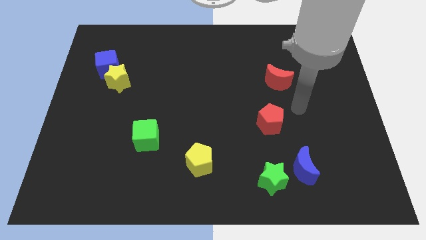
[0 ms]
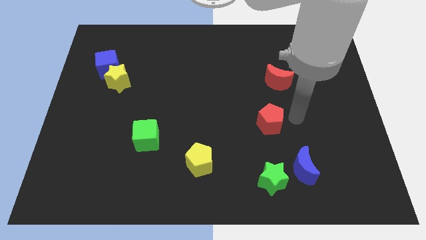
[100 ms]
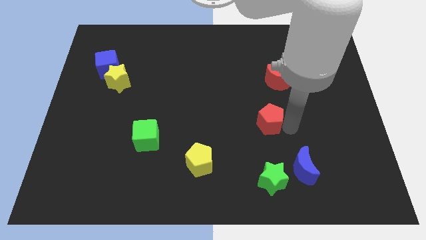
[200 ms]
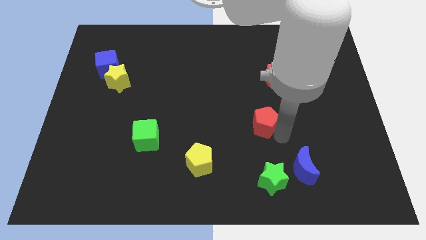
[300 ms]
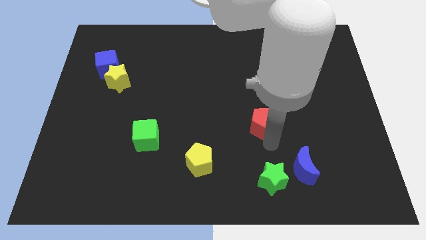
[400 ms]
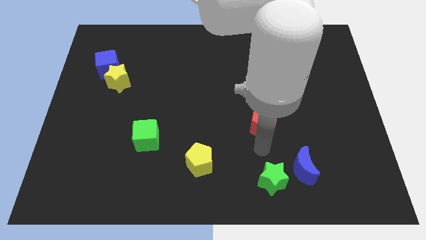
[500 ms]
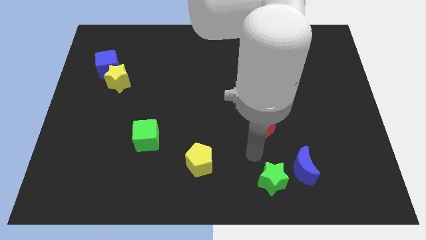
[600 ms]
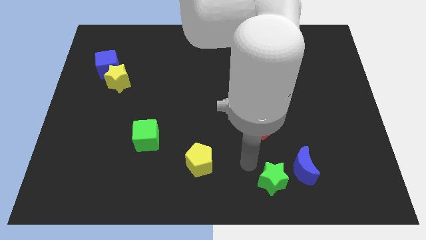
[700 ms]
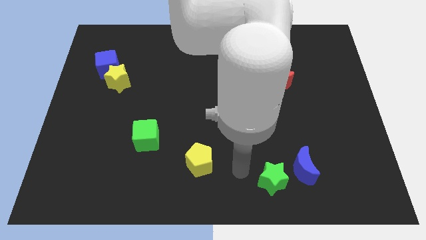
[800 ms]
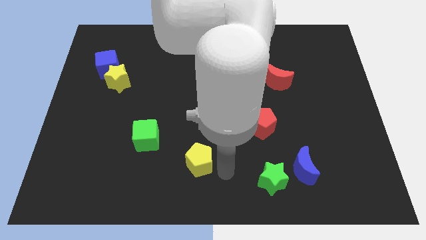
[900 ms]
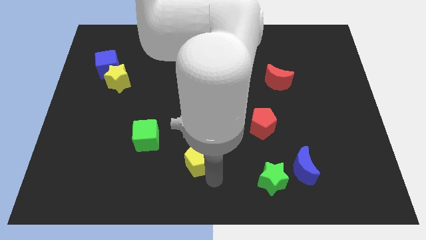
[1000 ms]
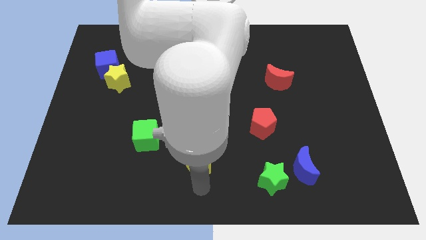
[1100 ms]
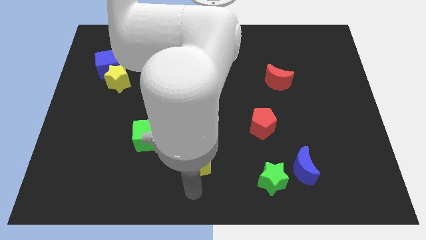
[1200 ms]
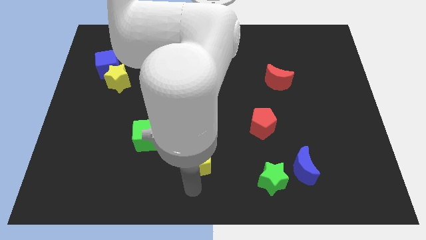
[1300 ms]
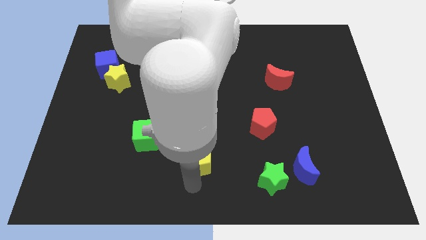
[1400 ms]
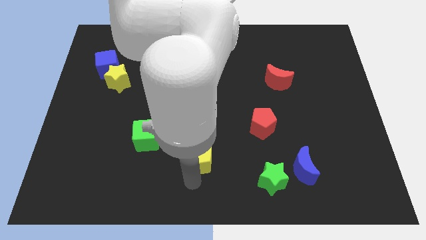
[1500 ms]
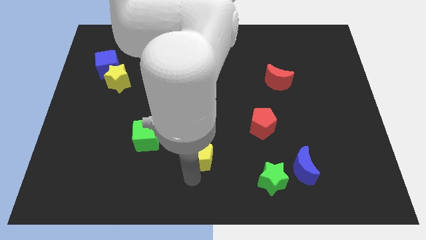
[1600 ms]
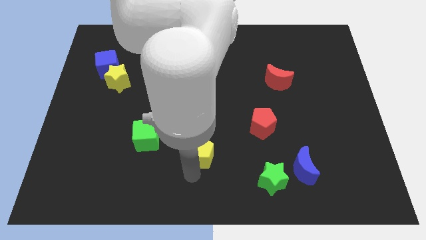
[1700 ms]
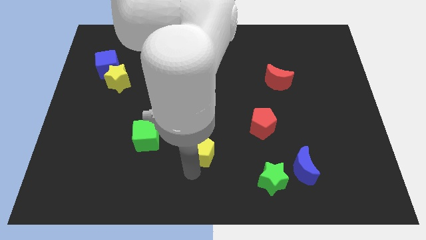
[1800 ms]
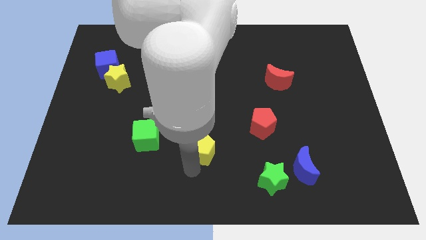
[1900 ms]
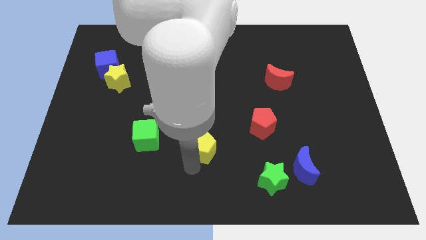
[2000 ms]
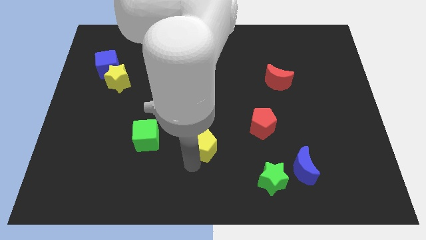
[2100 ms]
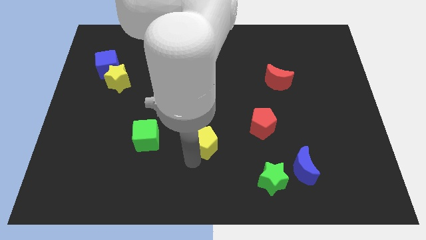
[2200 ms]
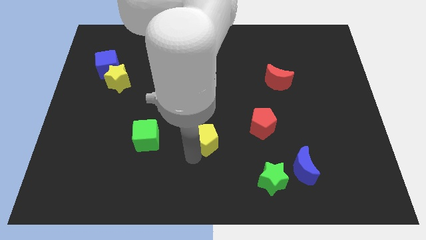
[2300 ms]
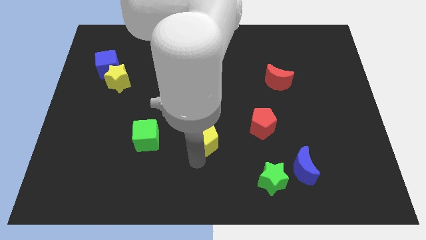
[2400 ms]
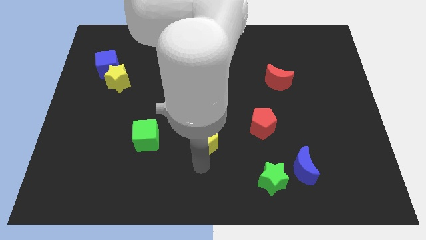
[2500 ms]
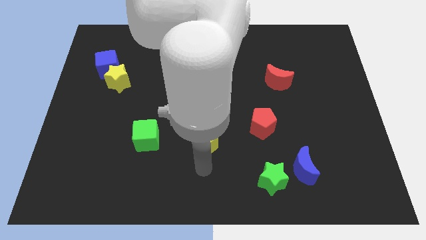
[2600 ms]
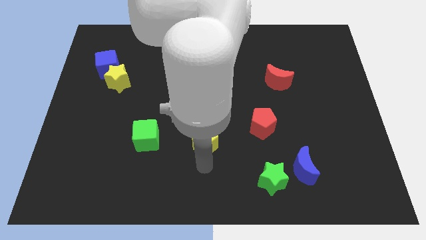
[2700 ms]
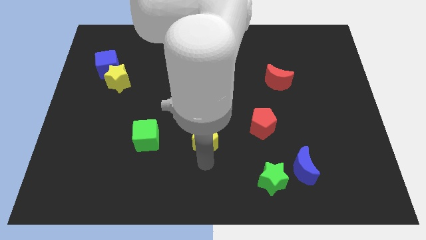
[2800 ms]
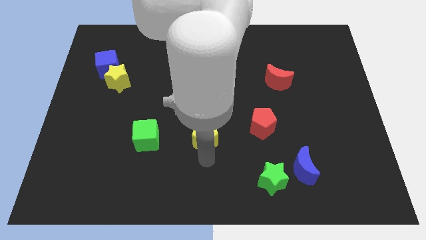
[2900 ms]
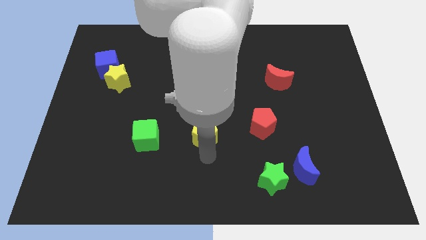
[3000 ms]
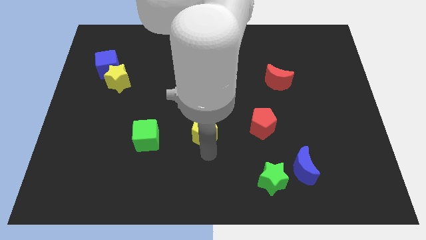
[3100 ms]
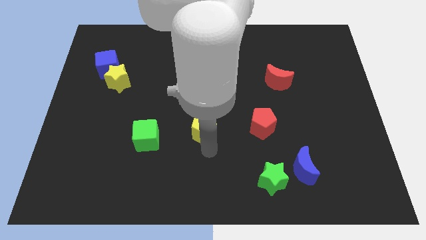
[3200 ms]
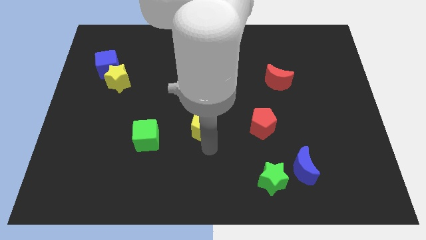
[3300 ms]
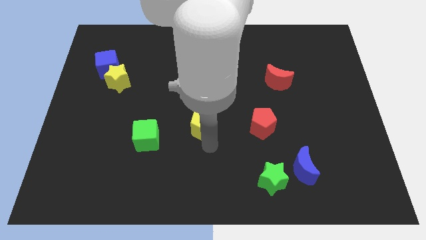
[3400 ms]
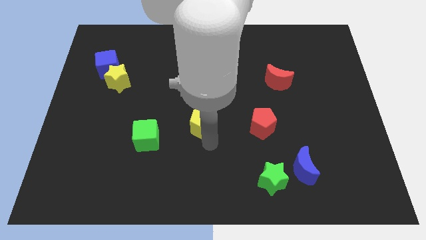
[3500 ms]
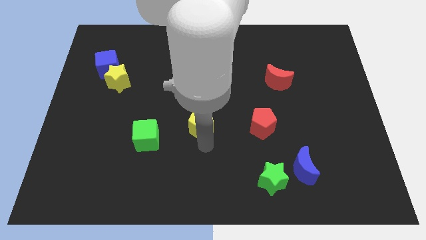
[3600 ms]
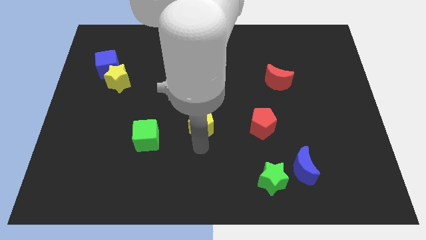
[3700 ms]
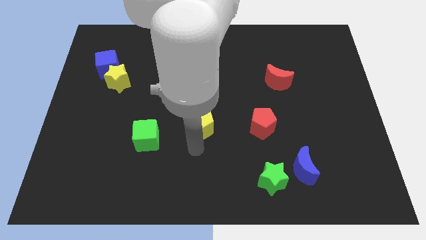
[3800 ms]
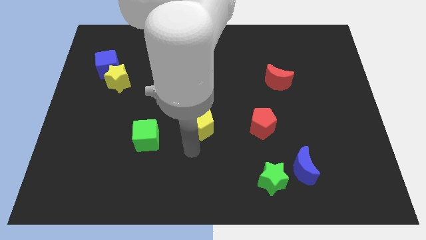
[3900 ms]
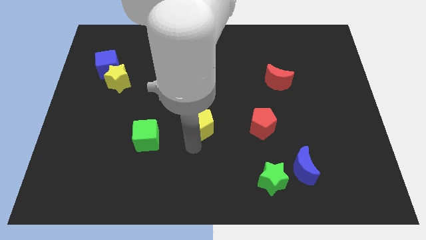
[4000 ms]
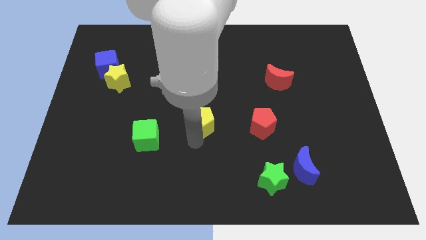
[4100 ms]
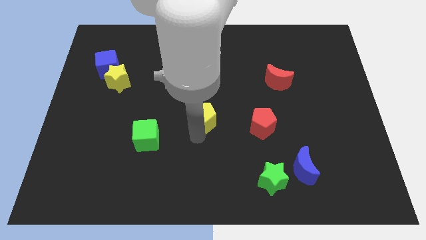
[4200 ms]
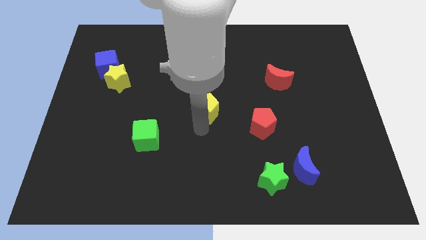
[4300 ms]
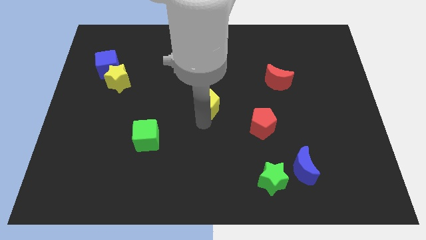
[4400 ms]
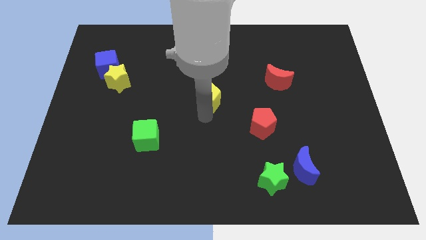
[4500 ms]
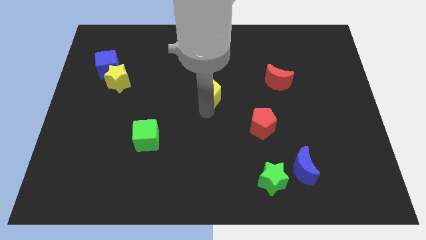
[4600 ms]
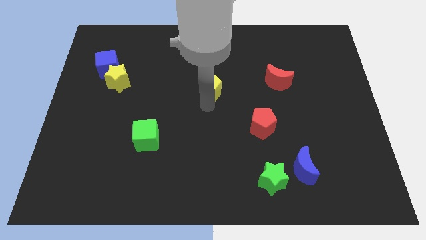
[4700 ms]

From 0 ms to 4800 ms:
slide the yellow pentagon upwards

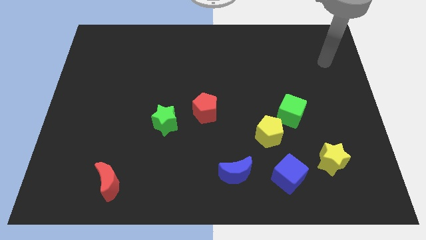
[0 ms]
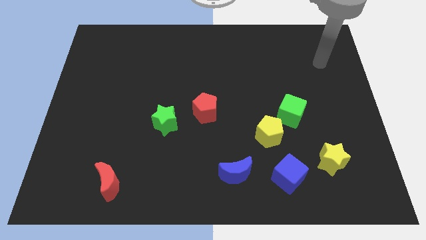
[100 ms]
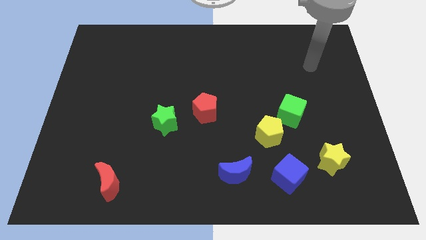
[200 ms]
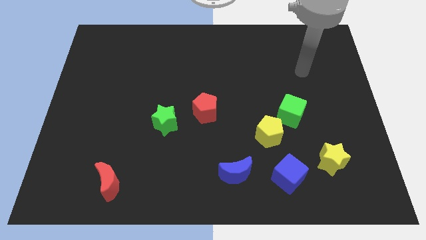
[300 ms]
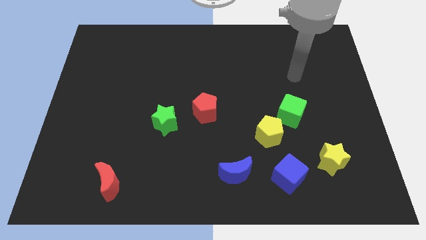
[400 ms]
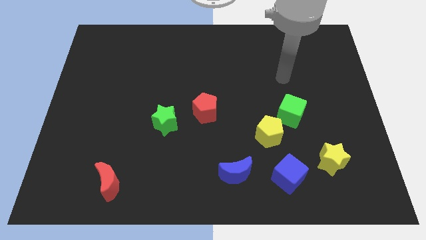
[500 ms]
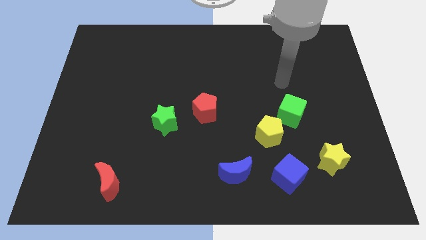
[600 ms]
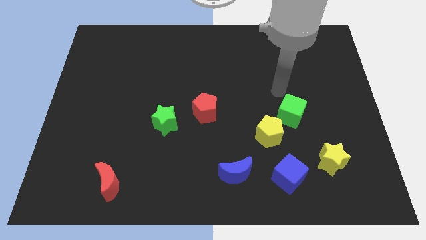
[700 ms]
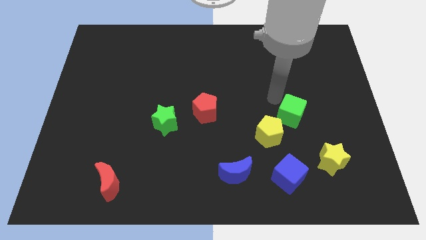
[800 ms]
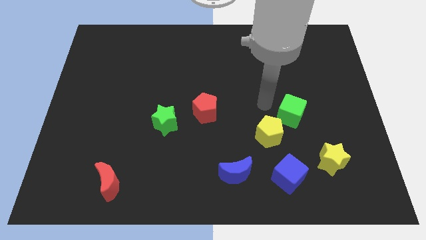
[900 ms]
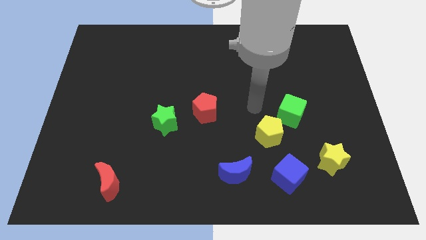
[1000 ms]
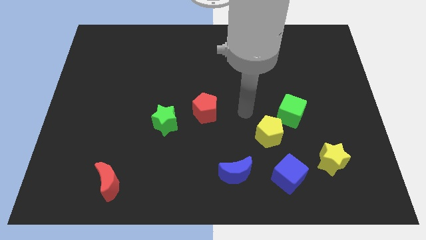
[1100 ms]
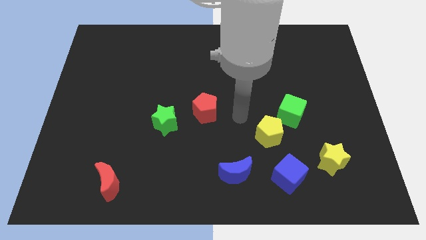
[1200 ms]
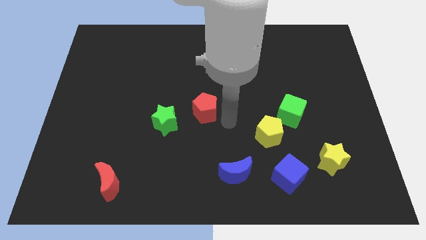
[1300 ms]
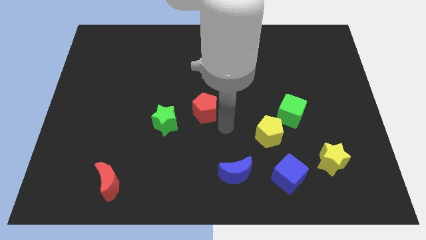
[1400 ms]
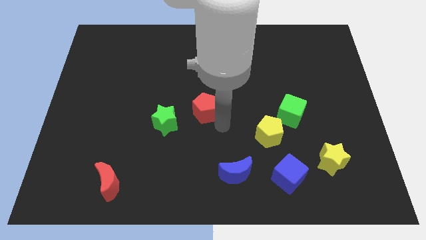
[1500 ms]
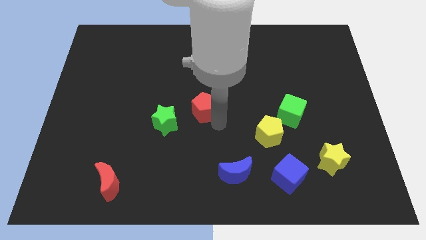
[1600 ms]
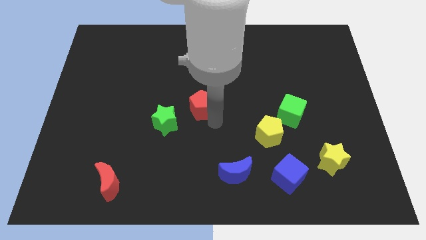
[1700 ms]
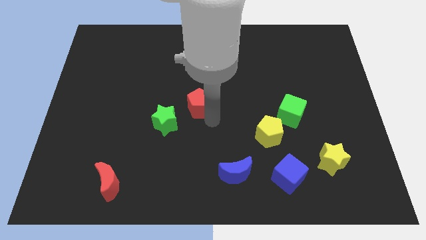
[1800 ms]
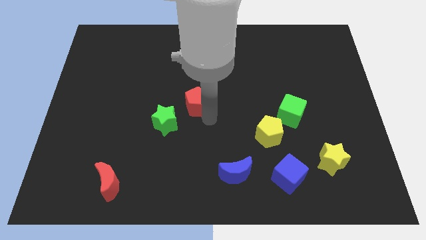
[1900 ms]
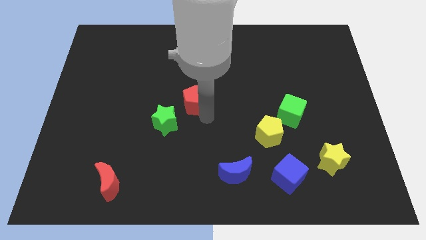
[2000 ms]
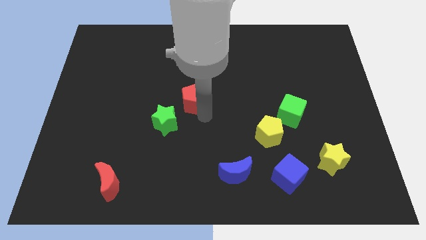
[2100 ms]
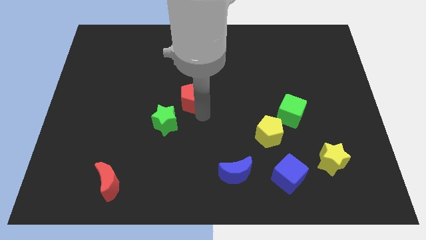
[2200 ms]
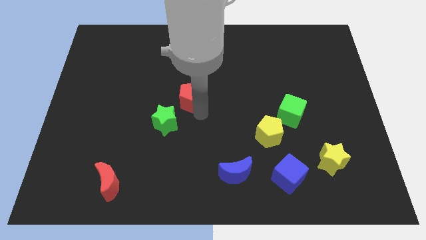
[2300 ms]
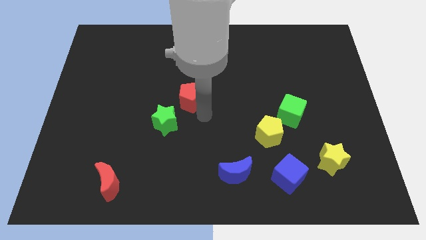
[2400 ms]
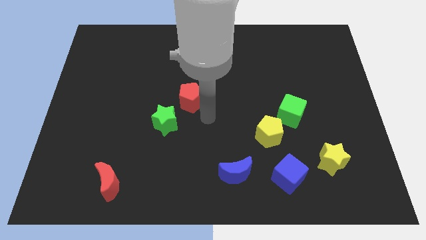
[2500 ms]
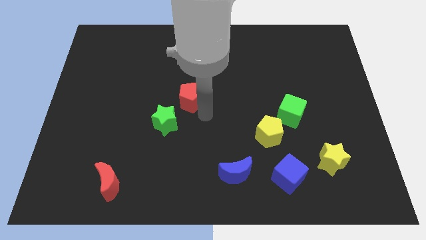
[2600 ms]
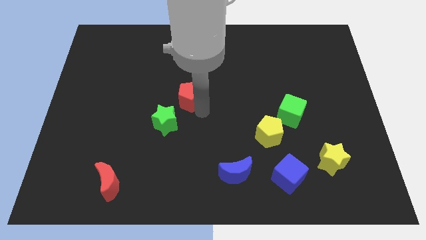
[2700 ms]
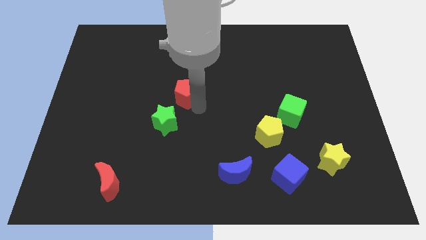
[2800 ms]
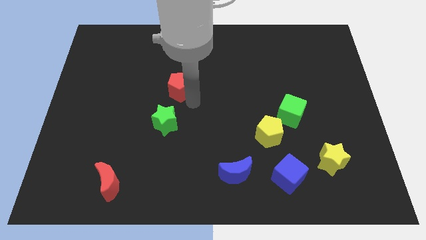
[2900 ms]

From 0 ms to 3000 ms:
move the red pentagon up and then left a bit

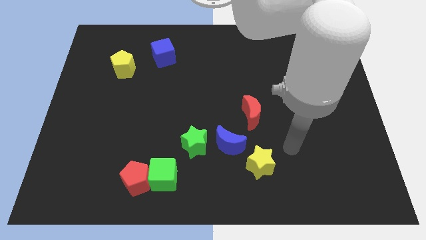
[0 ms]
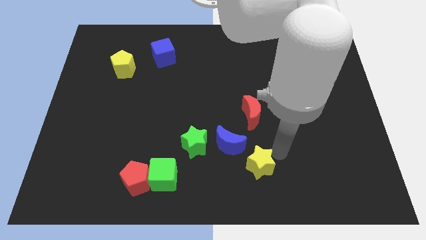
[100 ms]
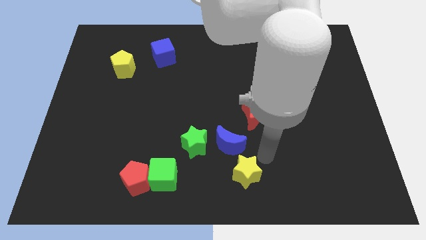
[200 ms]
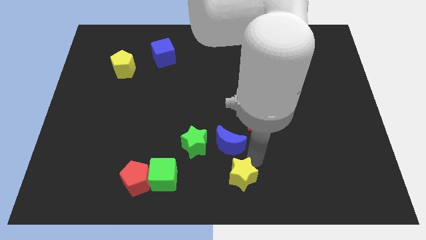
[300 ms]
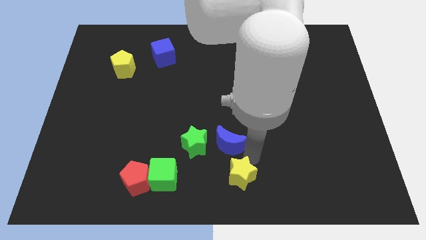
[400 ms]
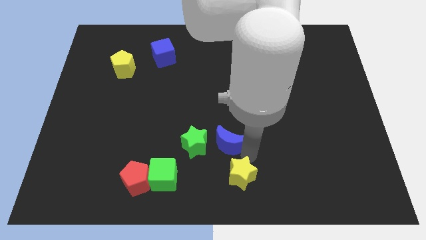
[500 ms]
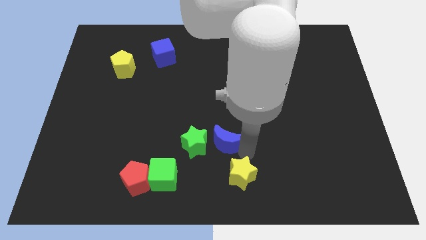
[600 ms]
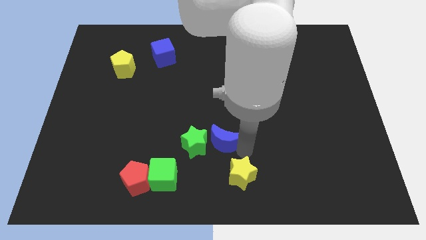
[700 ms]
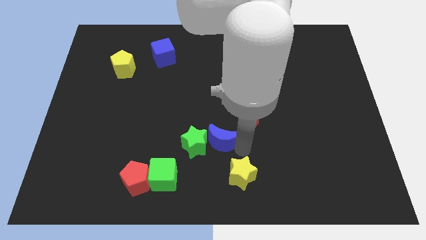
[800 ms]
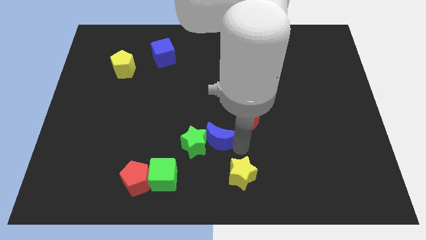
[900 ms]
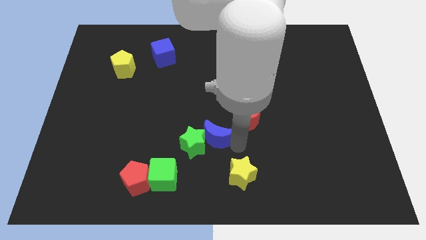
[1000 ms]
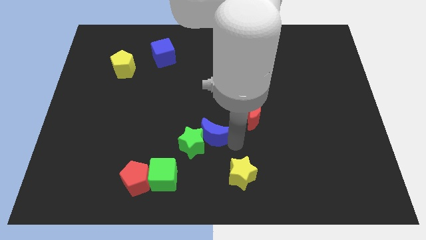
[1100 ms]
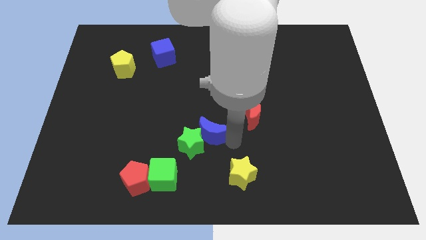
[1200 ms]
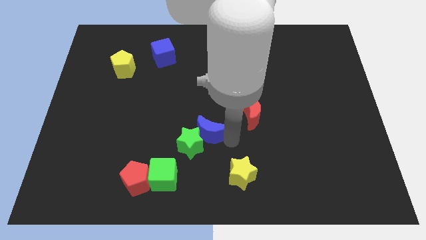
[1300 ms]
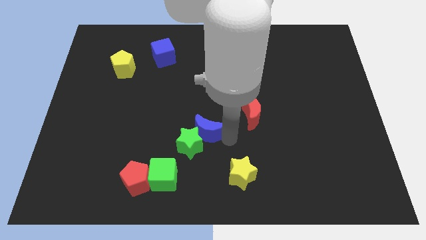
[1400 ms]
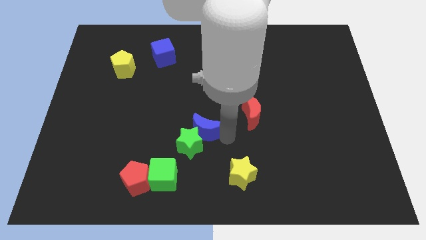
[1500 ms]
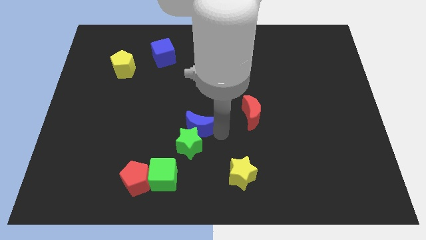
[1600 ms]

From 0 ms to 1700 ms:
push the blue moon upwards and then to the left somewhat
